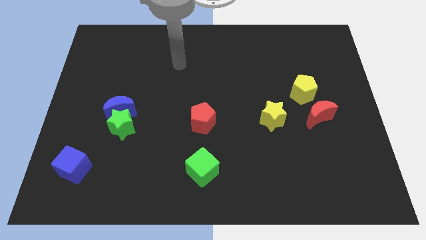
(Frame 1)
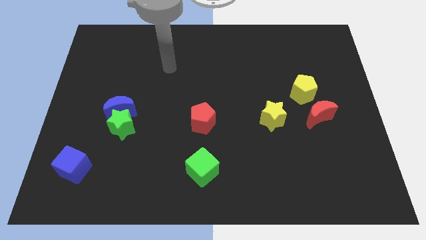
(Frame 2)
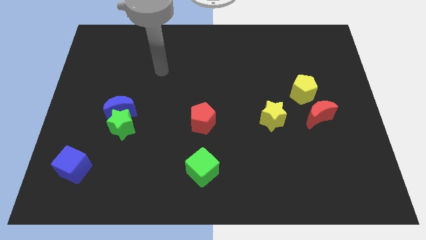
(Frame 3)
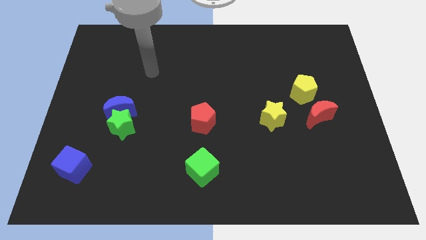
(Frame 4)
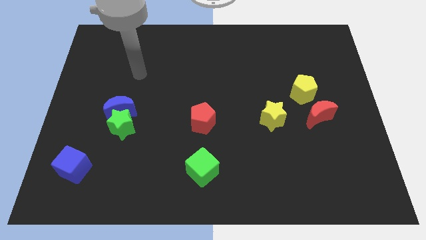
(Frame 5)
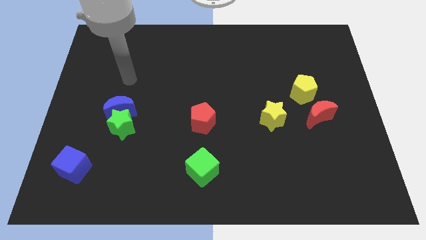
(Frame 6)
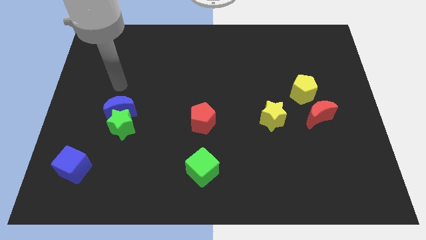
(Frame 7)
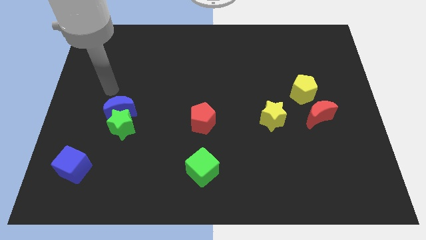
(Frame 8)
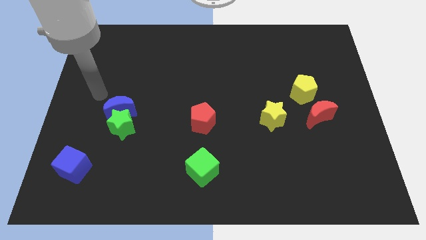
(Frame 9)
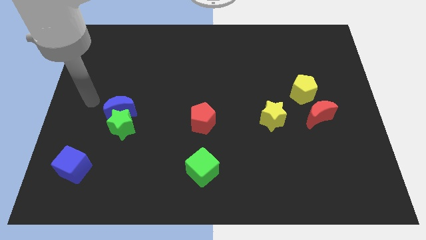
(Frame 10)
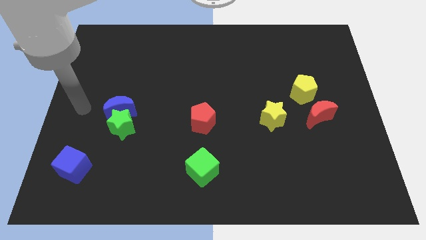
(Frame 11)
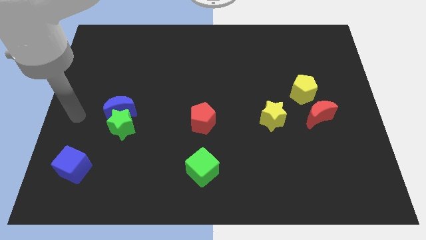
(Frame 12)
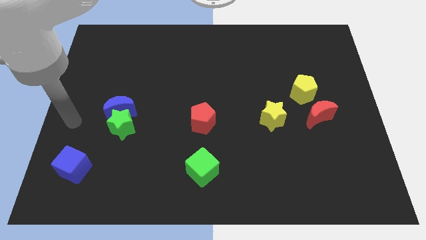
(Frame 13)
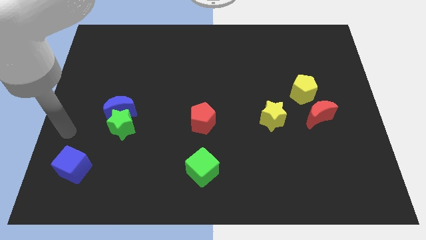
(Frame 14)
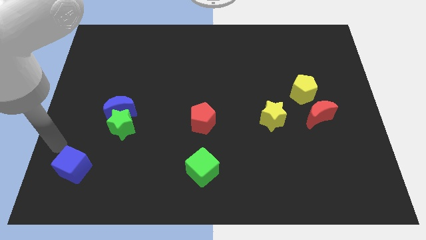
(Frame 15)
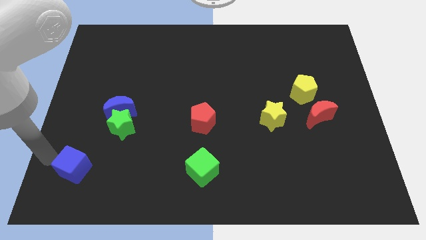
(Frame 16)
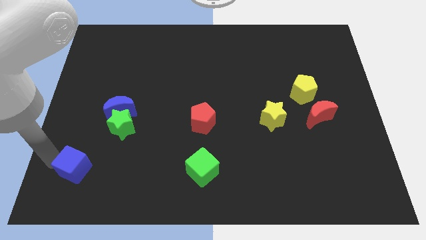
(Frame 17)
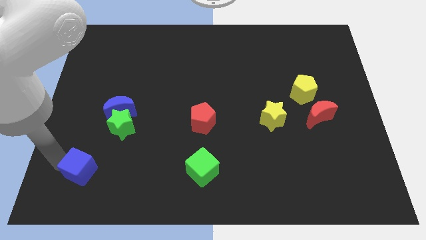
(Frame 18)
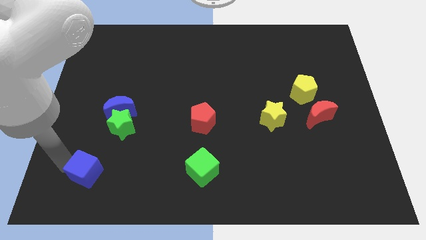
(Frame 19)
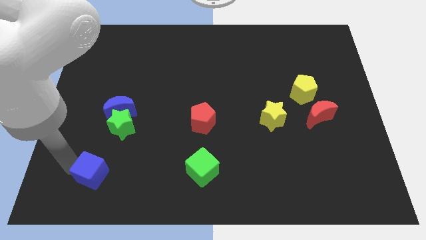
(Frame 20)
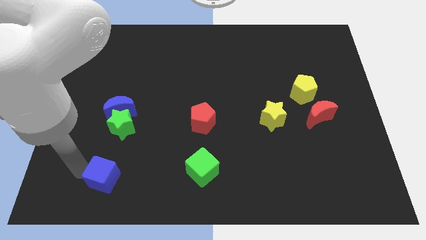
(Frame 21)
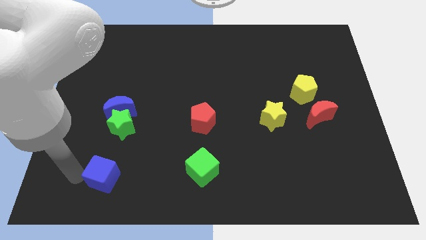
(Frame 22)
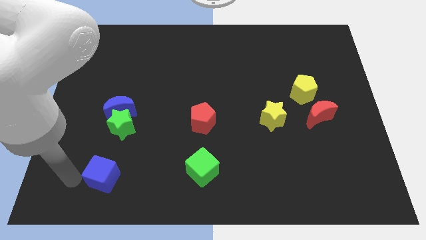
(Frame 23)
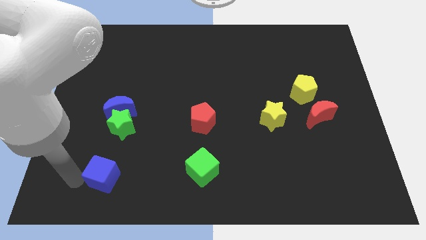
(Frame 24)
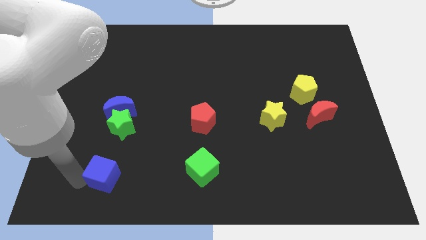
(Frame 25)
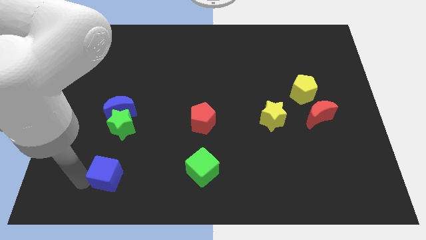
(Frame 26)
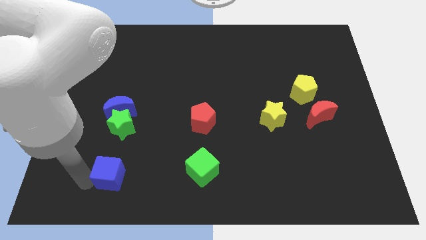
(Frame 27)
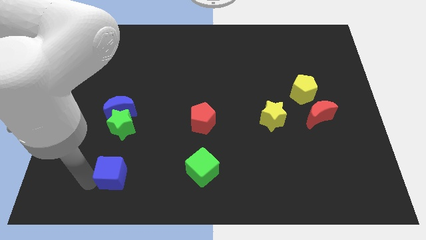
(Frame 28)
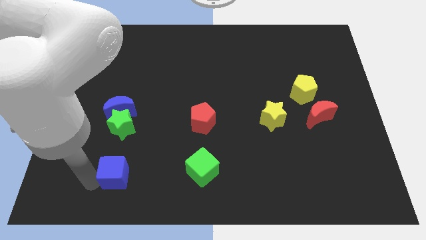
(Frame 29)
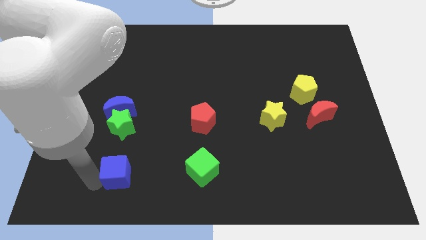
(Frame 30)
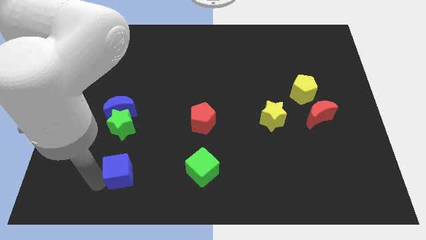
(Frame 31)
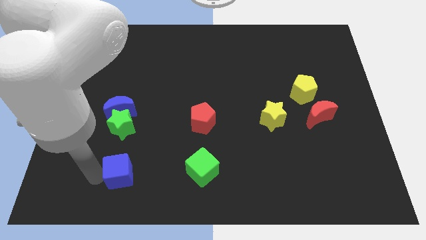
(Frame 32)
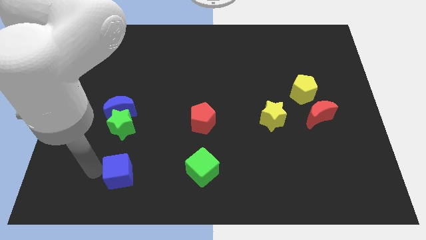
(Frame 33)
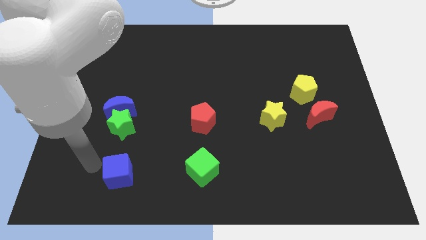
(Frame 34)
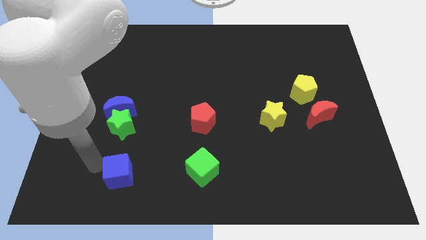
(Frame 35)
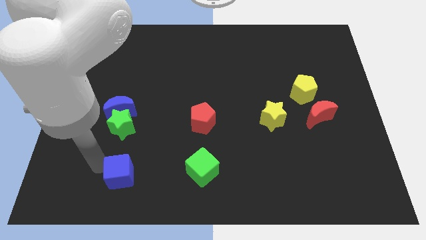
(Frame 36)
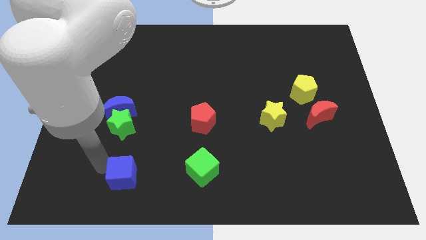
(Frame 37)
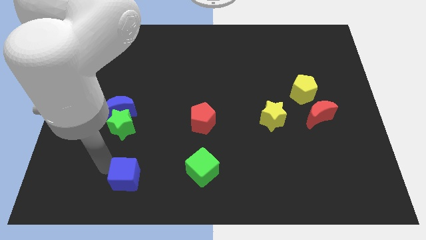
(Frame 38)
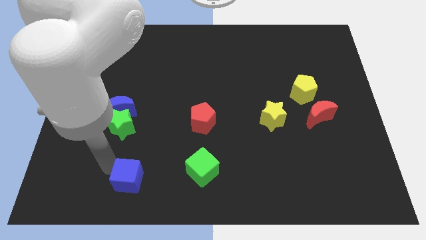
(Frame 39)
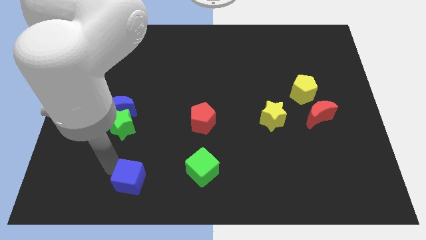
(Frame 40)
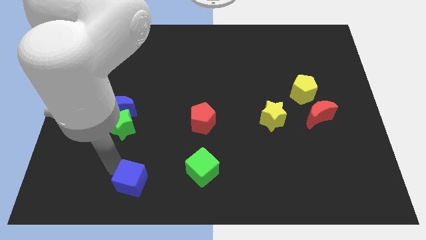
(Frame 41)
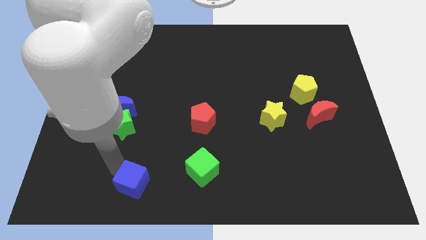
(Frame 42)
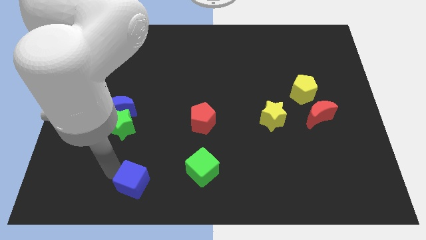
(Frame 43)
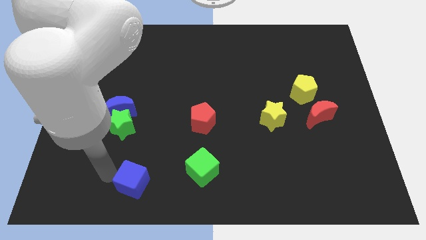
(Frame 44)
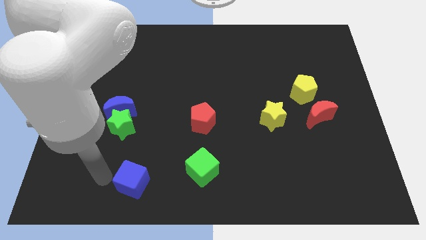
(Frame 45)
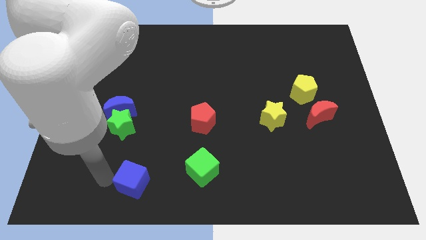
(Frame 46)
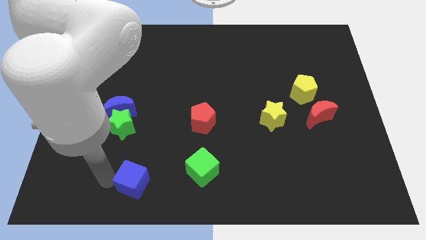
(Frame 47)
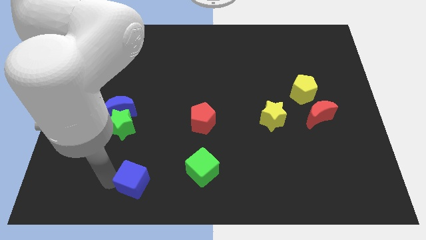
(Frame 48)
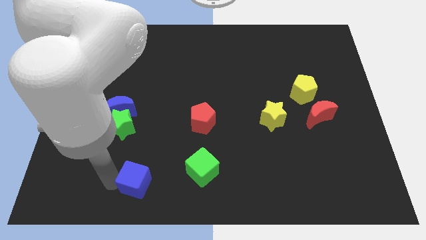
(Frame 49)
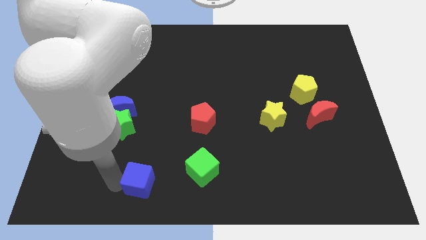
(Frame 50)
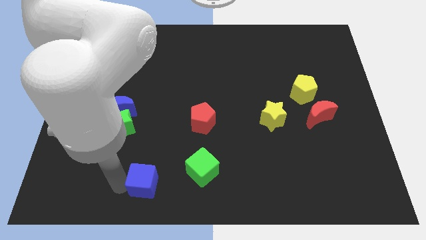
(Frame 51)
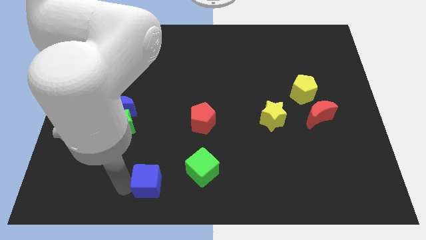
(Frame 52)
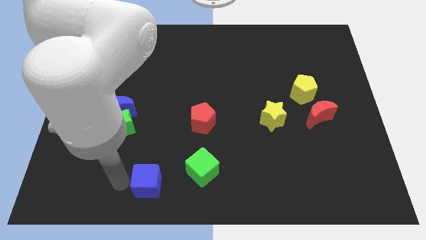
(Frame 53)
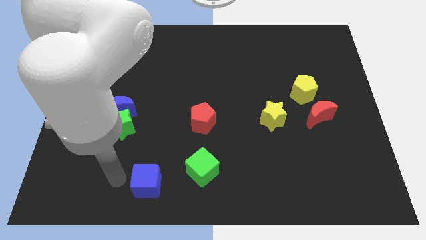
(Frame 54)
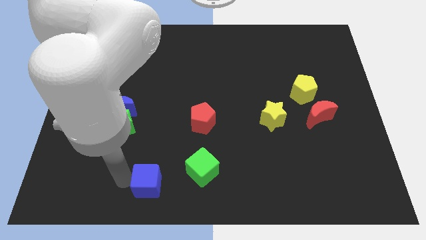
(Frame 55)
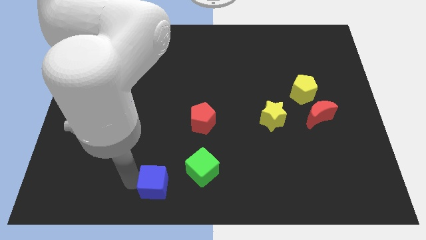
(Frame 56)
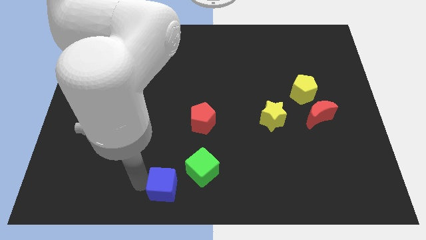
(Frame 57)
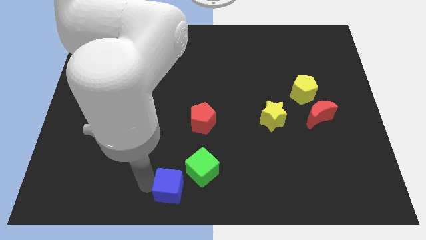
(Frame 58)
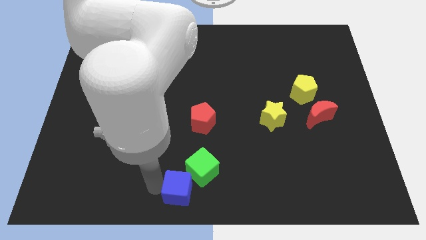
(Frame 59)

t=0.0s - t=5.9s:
push the blue cube to the right

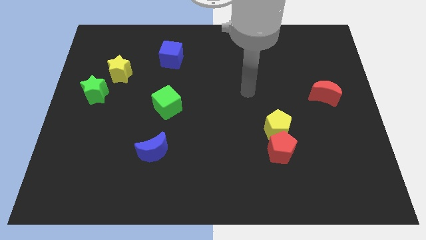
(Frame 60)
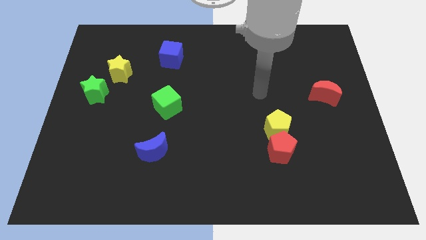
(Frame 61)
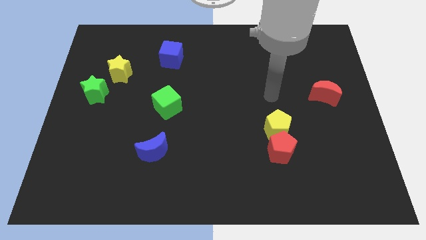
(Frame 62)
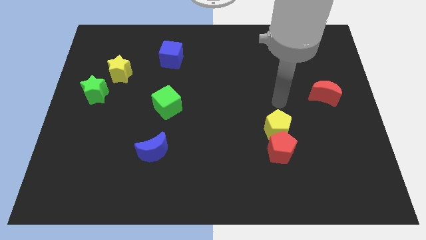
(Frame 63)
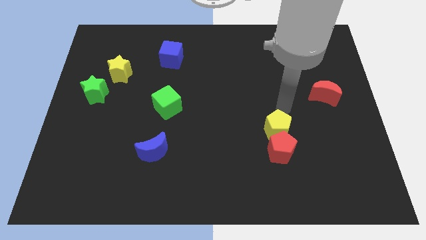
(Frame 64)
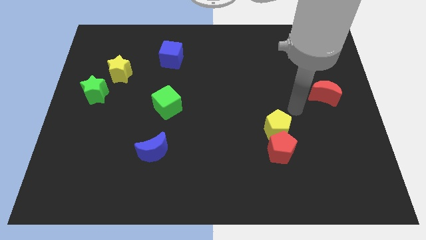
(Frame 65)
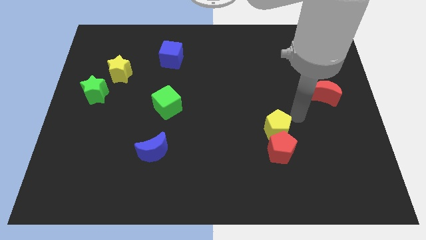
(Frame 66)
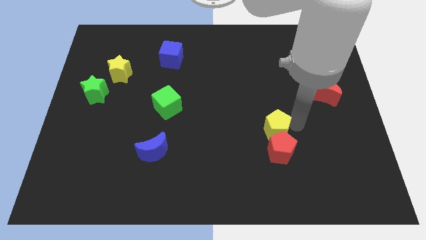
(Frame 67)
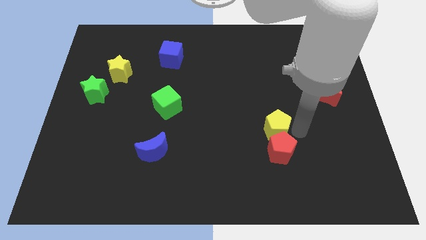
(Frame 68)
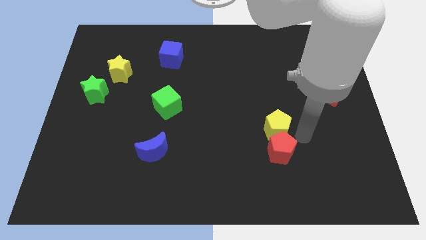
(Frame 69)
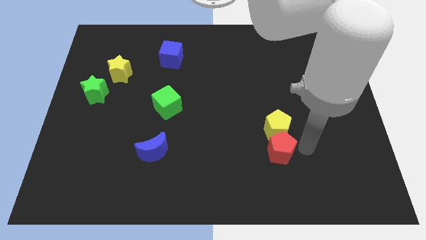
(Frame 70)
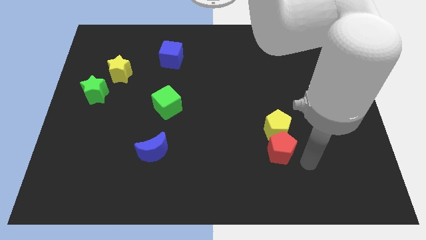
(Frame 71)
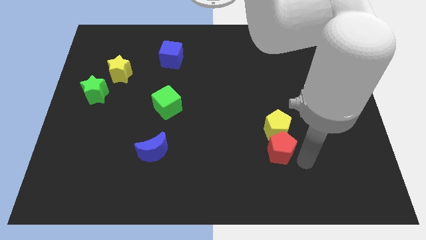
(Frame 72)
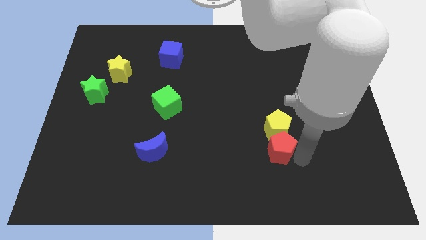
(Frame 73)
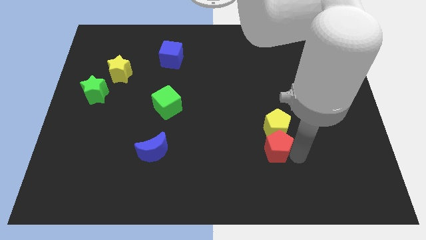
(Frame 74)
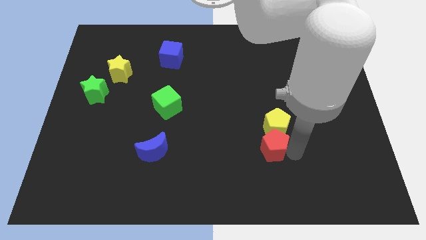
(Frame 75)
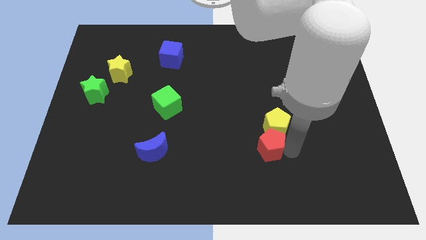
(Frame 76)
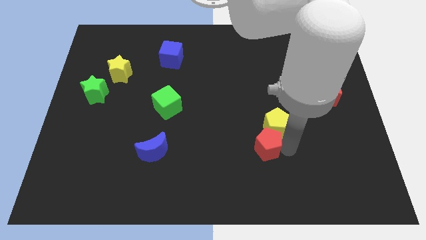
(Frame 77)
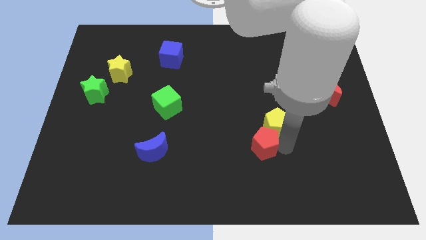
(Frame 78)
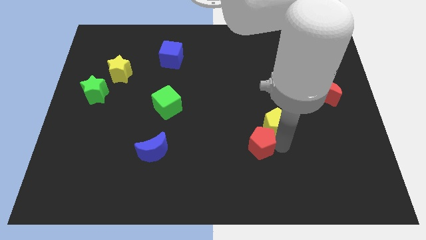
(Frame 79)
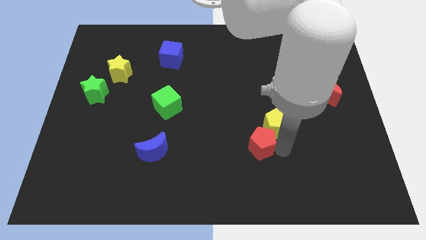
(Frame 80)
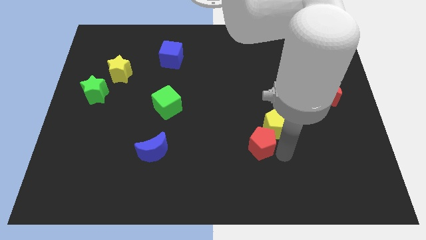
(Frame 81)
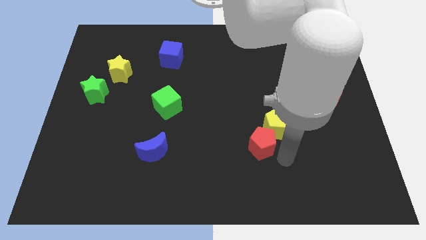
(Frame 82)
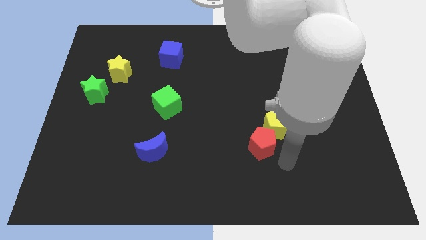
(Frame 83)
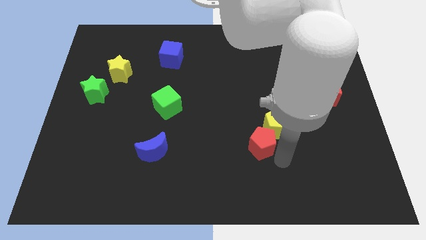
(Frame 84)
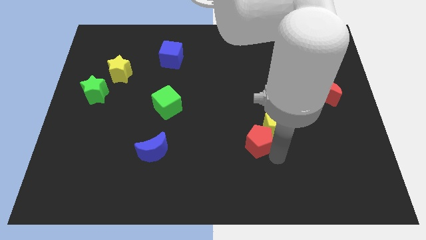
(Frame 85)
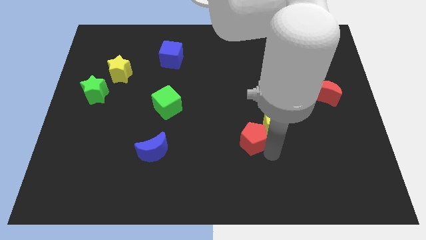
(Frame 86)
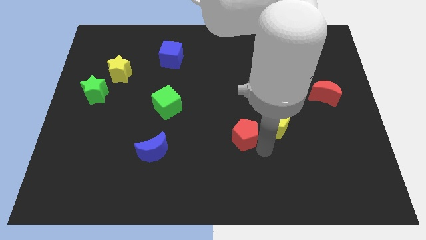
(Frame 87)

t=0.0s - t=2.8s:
move the red pentagon a little bit up and left
